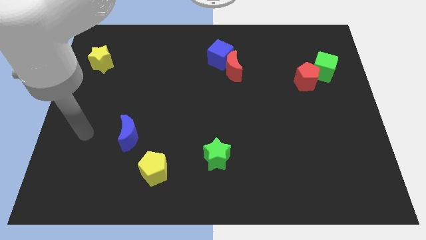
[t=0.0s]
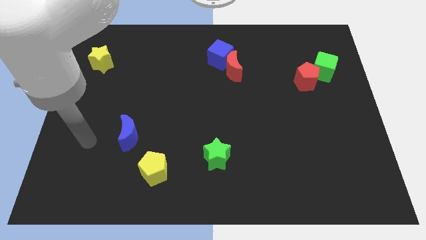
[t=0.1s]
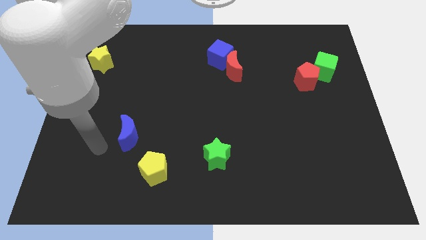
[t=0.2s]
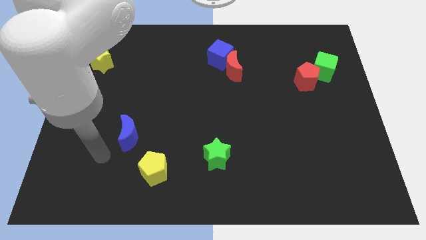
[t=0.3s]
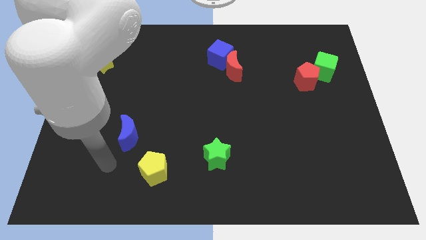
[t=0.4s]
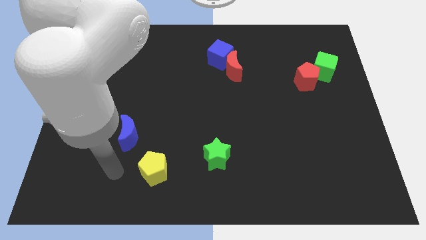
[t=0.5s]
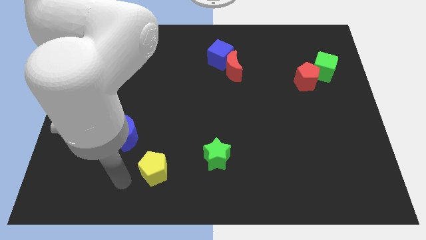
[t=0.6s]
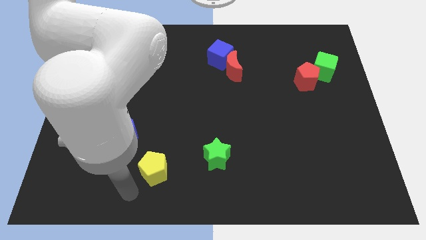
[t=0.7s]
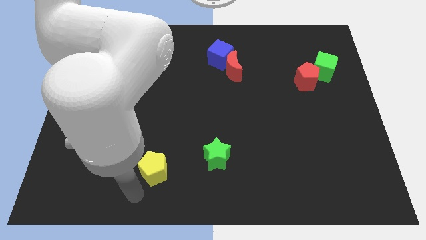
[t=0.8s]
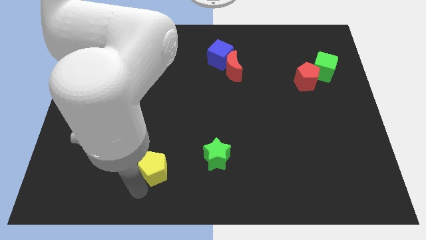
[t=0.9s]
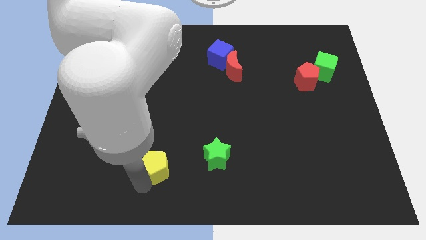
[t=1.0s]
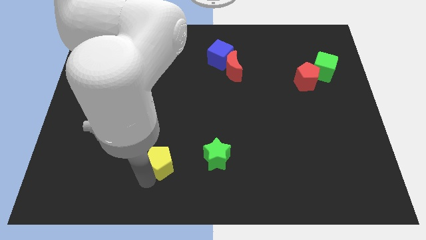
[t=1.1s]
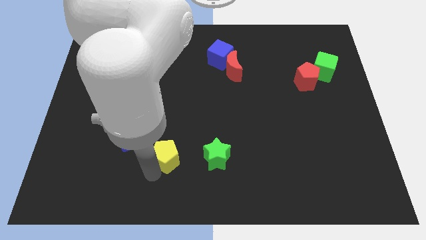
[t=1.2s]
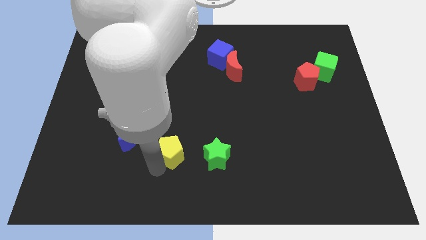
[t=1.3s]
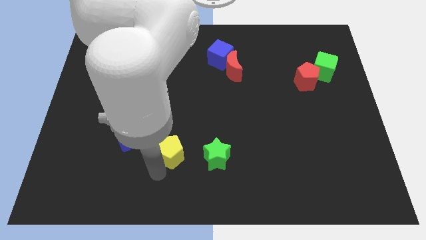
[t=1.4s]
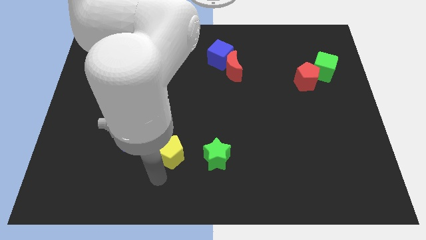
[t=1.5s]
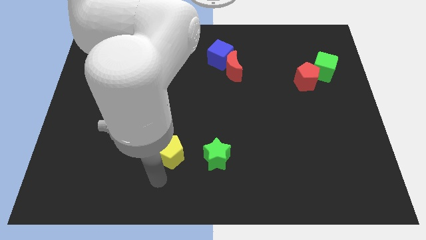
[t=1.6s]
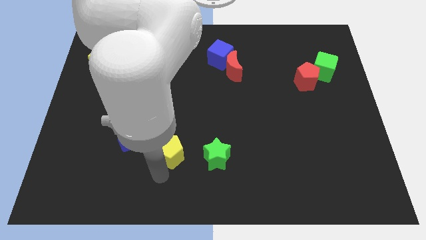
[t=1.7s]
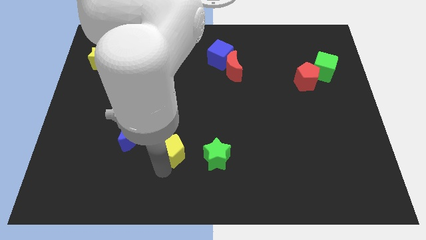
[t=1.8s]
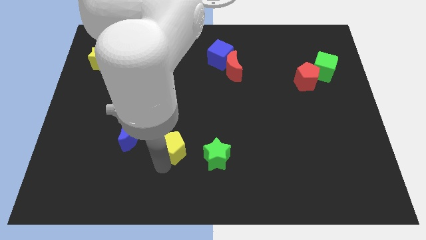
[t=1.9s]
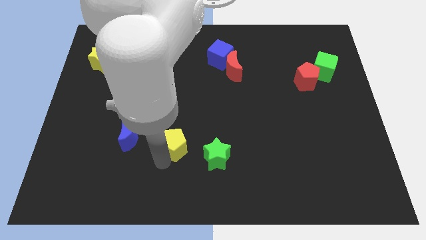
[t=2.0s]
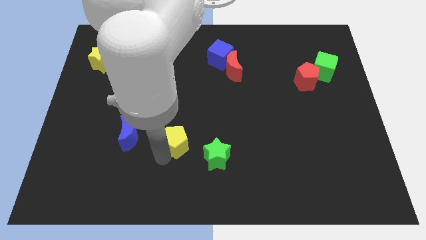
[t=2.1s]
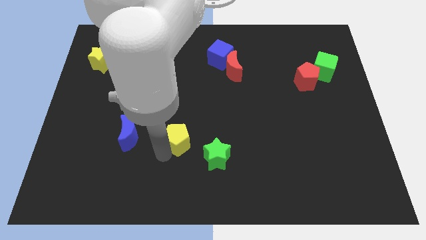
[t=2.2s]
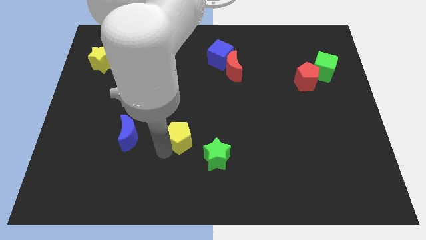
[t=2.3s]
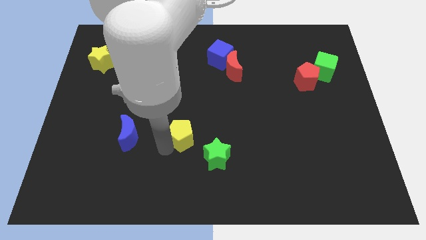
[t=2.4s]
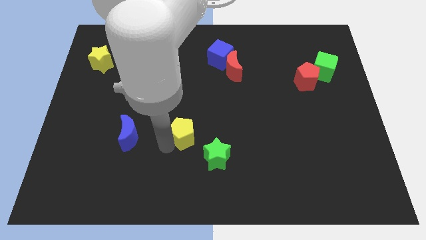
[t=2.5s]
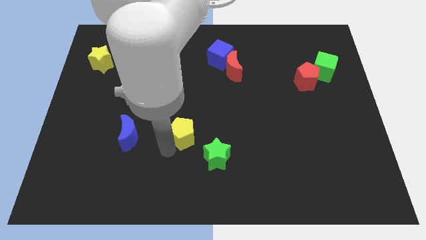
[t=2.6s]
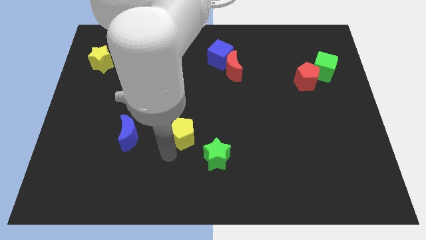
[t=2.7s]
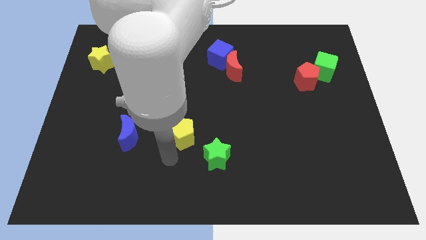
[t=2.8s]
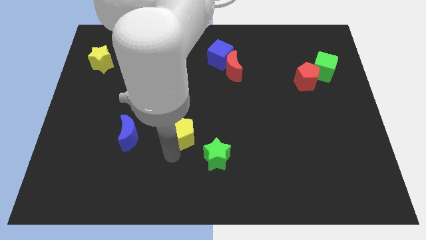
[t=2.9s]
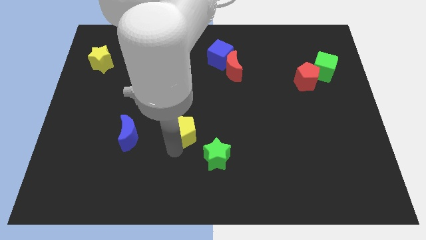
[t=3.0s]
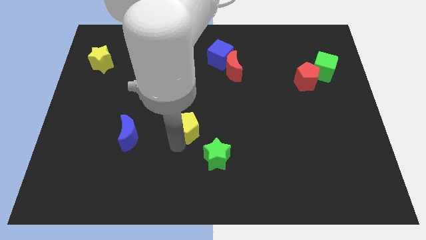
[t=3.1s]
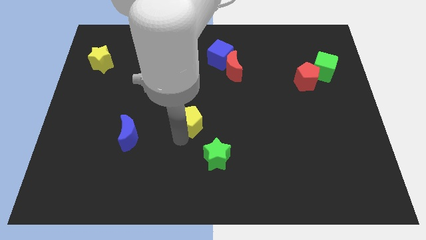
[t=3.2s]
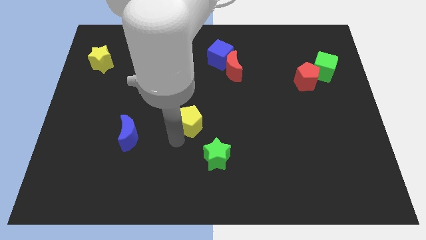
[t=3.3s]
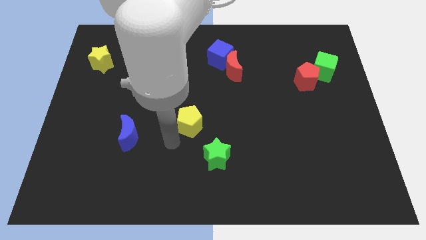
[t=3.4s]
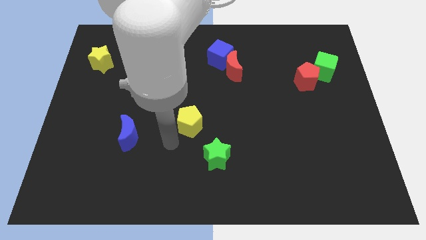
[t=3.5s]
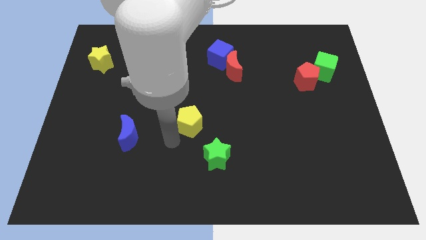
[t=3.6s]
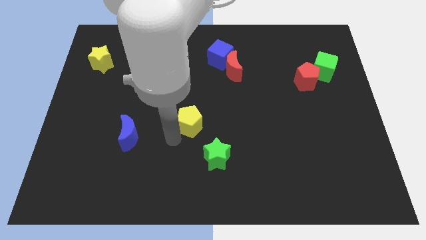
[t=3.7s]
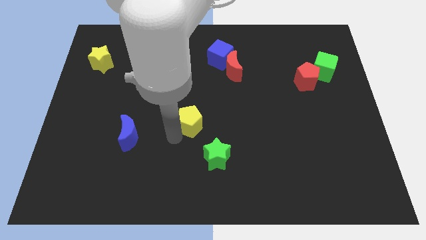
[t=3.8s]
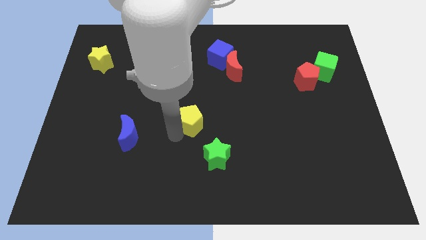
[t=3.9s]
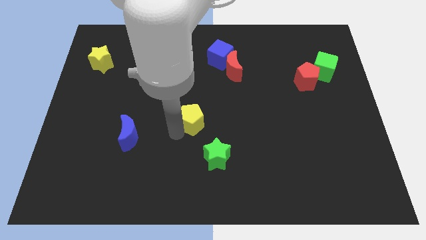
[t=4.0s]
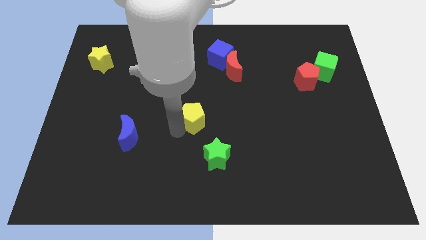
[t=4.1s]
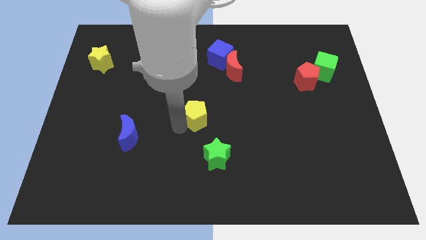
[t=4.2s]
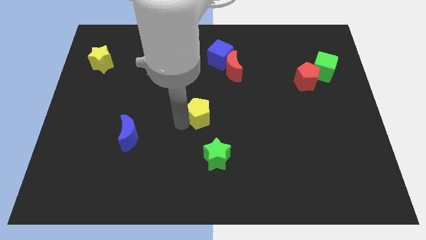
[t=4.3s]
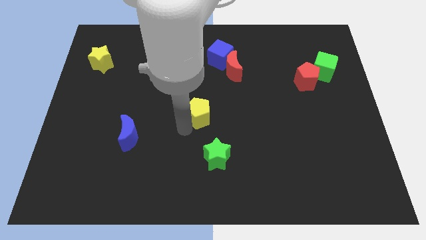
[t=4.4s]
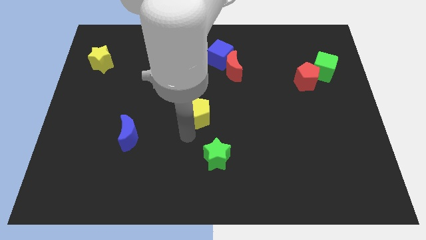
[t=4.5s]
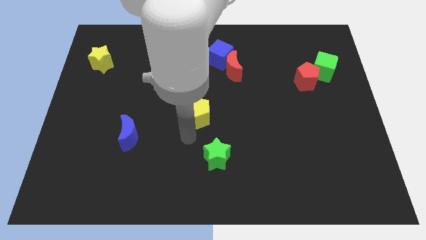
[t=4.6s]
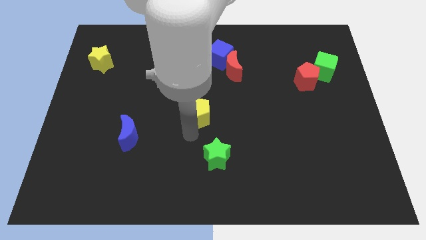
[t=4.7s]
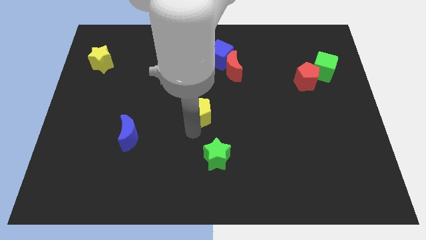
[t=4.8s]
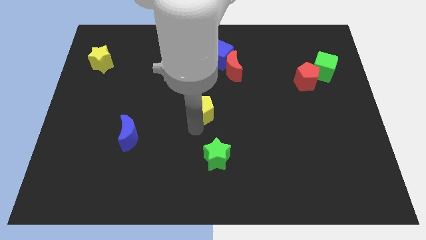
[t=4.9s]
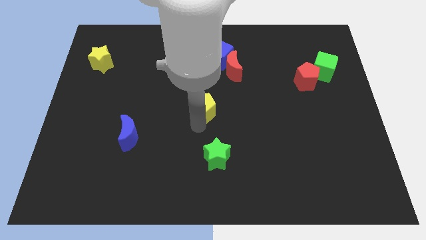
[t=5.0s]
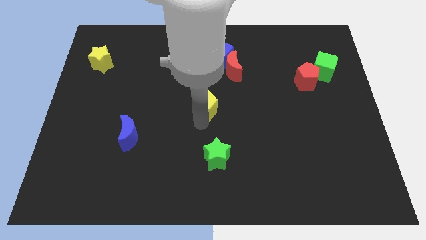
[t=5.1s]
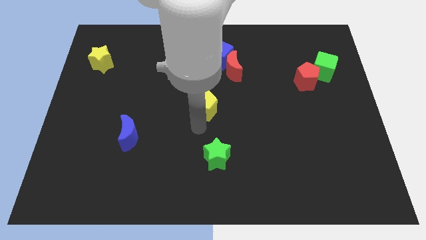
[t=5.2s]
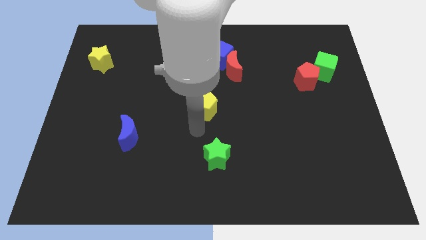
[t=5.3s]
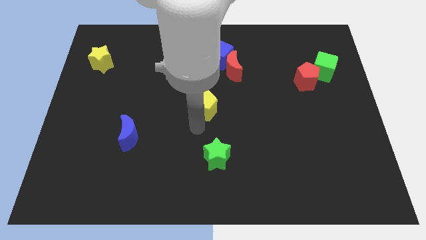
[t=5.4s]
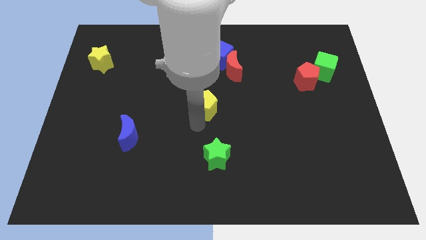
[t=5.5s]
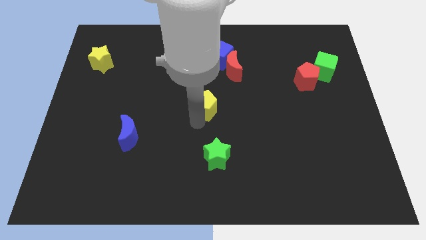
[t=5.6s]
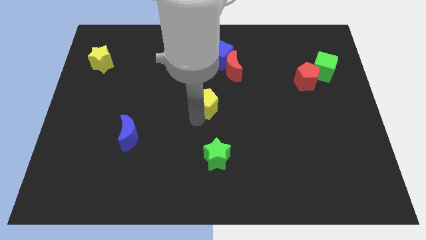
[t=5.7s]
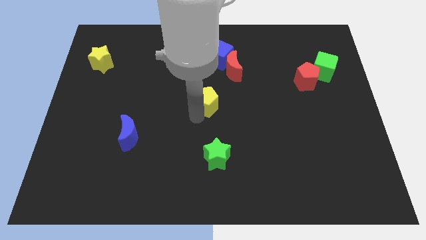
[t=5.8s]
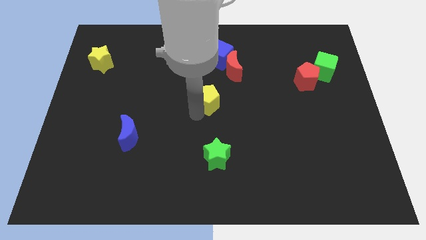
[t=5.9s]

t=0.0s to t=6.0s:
slide the yellow pentagon diagonally down and to the left of the red moon

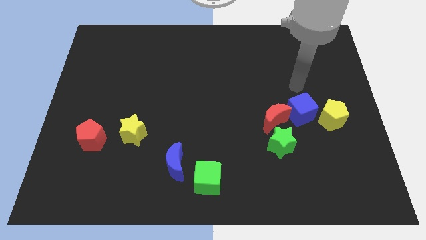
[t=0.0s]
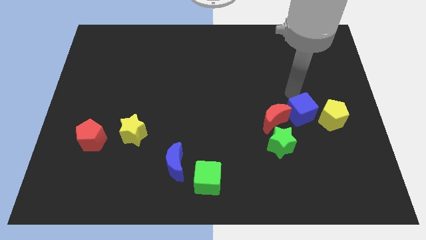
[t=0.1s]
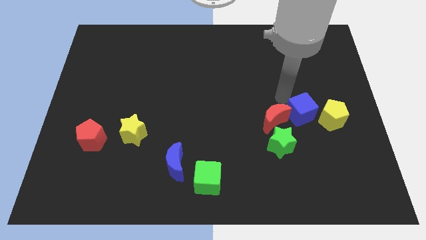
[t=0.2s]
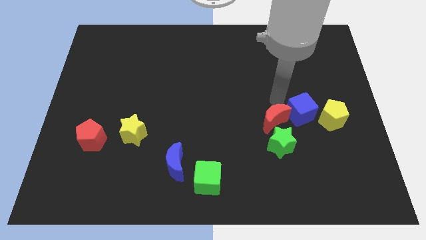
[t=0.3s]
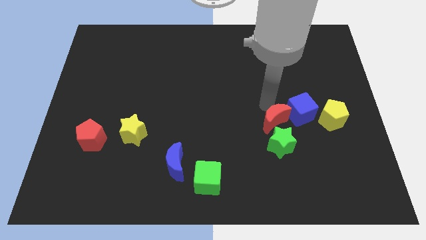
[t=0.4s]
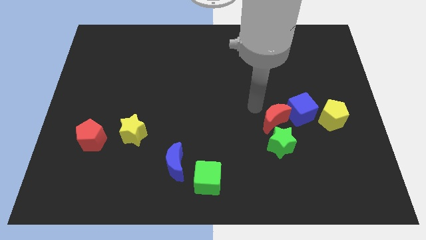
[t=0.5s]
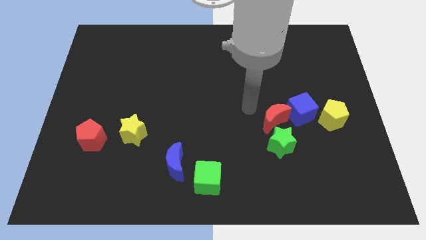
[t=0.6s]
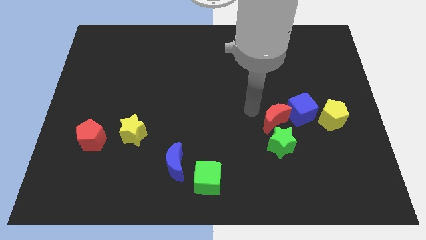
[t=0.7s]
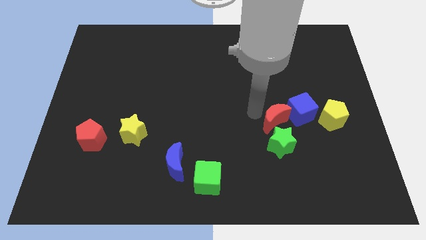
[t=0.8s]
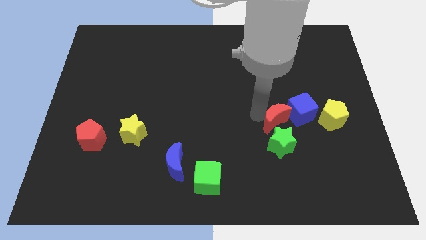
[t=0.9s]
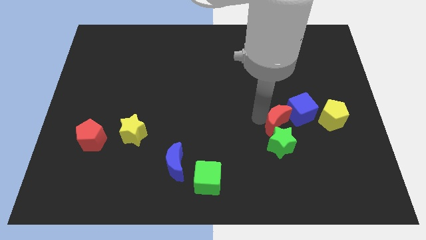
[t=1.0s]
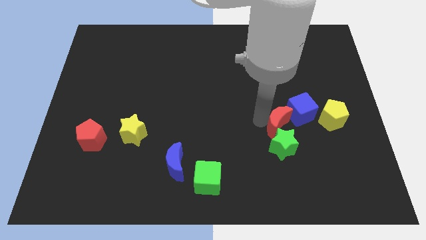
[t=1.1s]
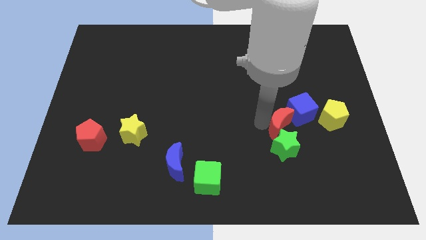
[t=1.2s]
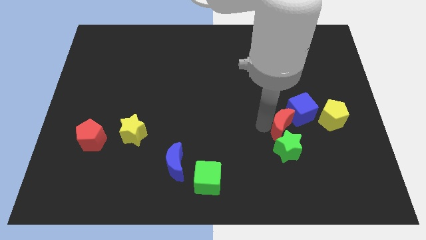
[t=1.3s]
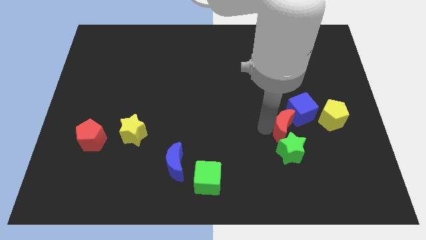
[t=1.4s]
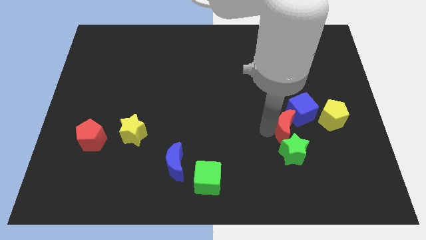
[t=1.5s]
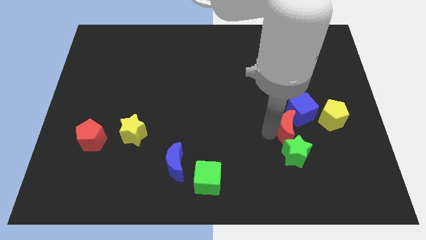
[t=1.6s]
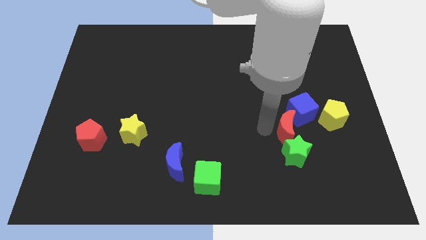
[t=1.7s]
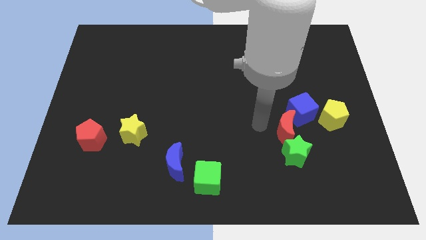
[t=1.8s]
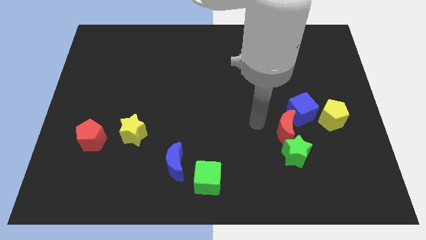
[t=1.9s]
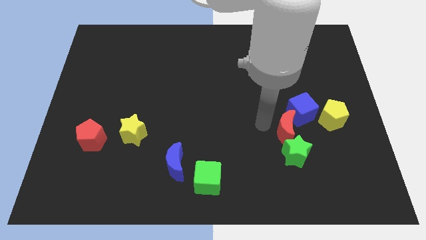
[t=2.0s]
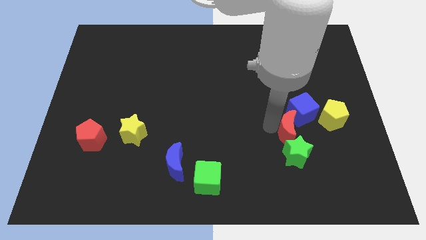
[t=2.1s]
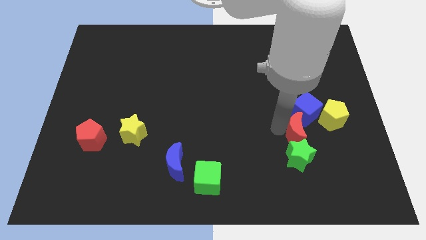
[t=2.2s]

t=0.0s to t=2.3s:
move the red moon to the bottom left of the yellow pentagon
